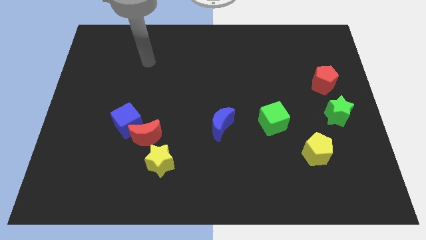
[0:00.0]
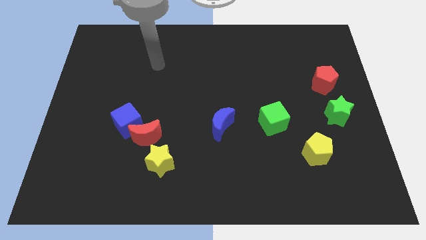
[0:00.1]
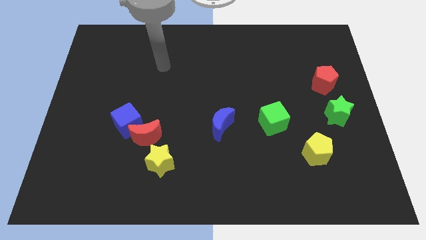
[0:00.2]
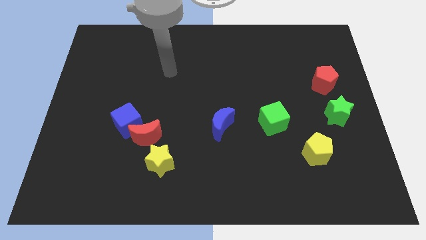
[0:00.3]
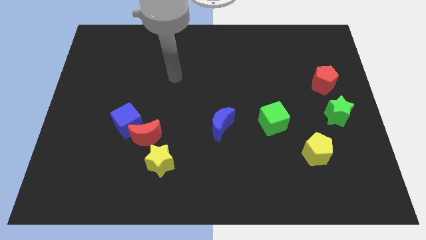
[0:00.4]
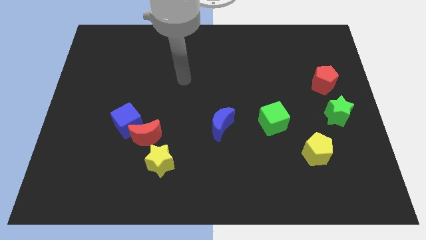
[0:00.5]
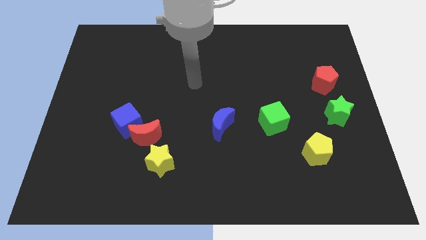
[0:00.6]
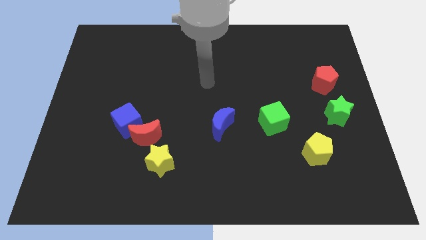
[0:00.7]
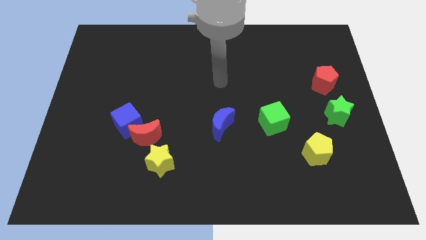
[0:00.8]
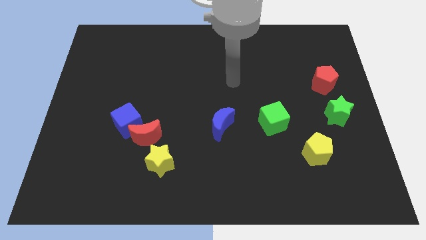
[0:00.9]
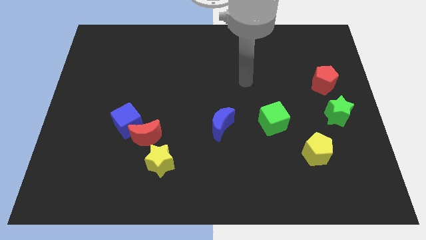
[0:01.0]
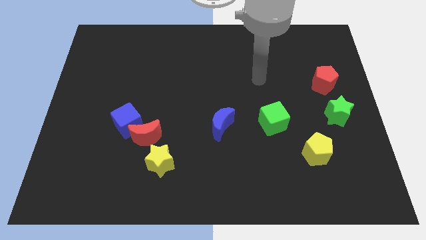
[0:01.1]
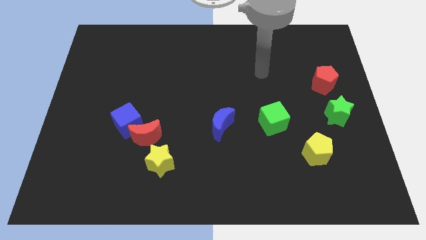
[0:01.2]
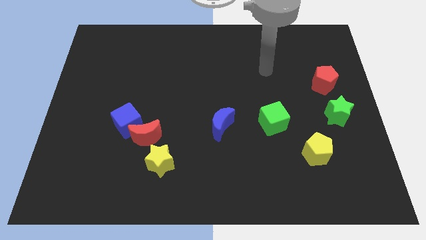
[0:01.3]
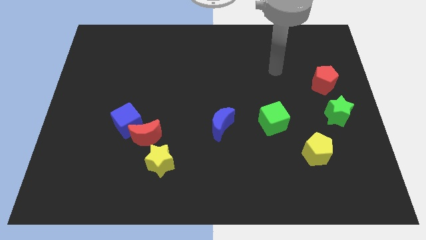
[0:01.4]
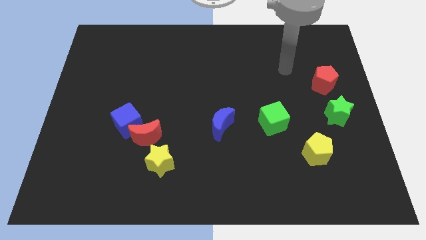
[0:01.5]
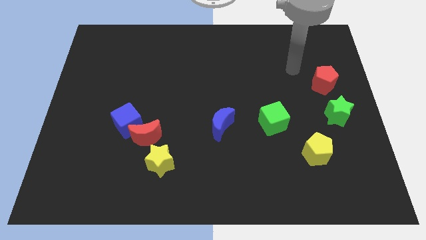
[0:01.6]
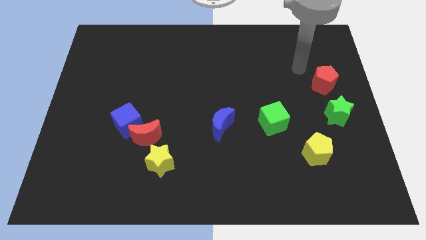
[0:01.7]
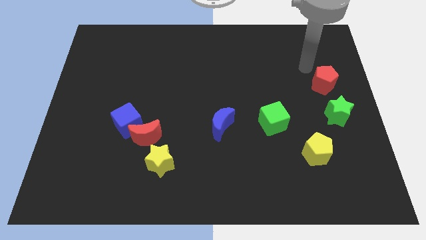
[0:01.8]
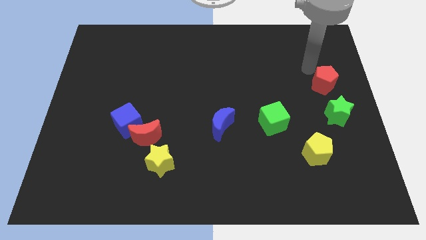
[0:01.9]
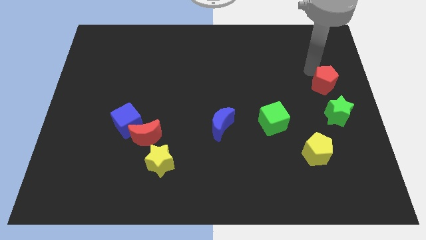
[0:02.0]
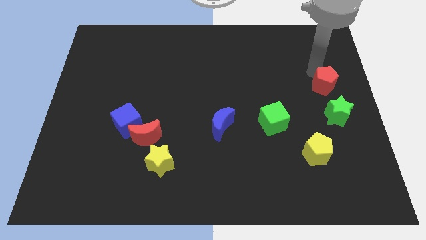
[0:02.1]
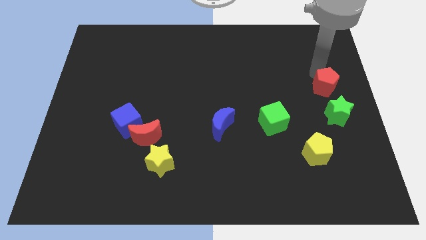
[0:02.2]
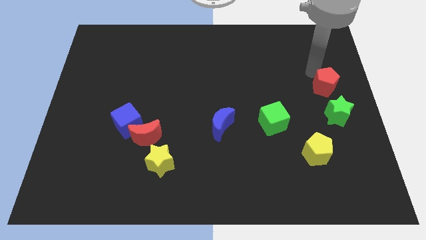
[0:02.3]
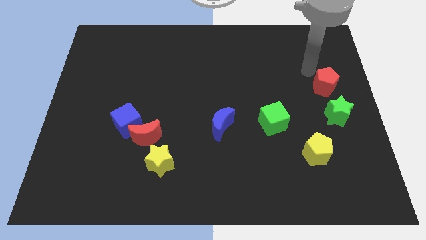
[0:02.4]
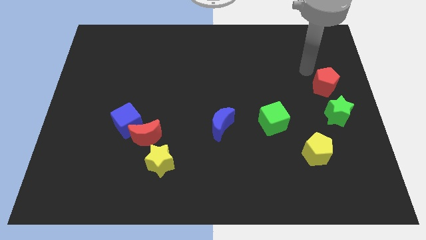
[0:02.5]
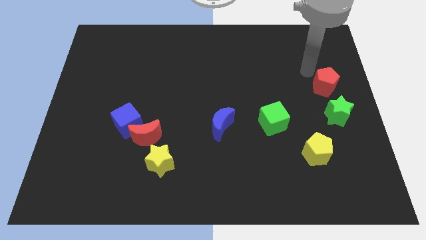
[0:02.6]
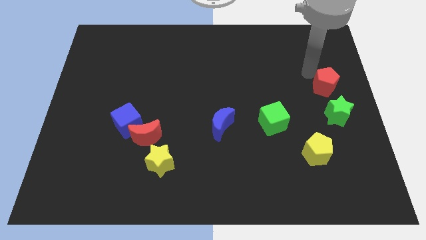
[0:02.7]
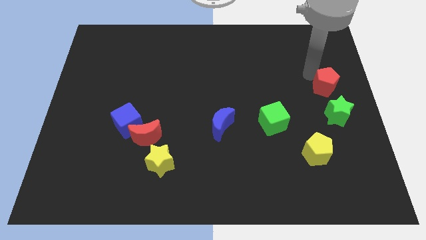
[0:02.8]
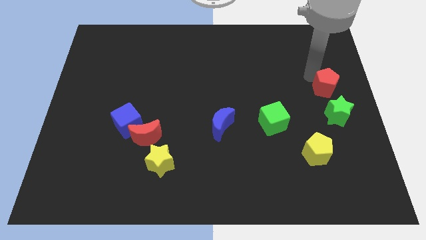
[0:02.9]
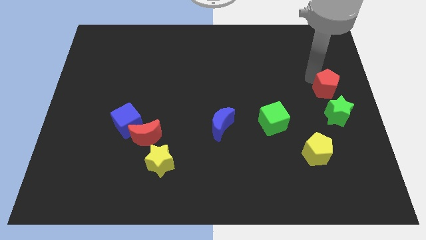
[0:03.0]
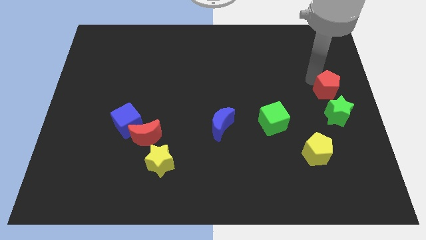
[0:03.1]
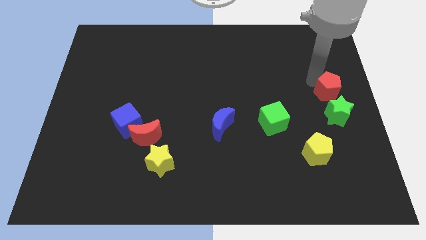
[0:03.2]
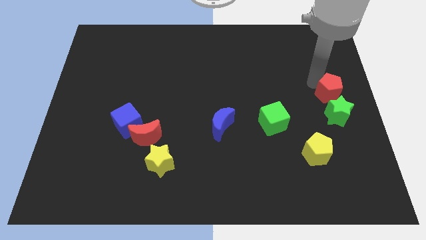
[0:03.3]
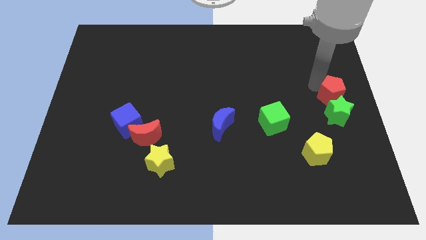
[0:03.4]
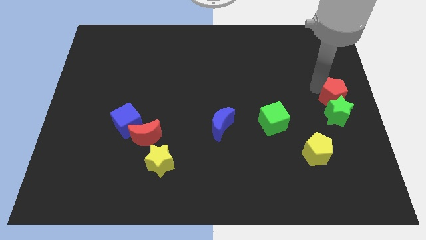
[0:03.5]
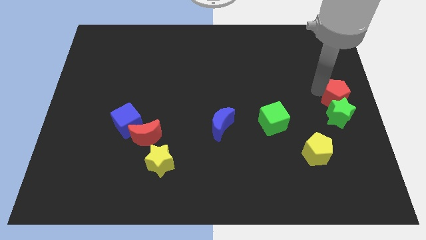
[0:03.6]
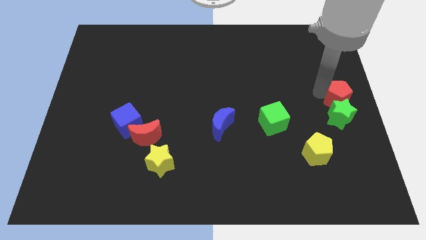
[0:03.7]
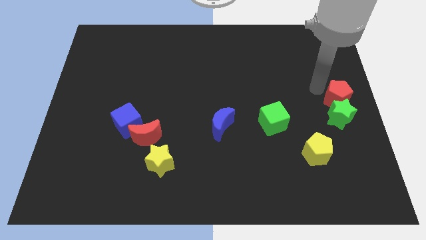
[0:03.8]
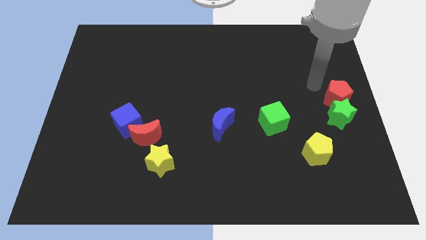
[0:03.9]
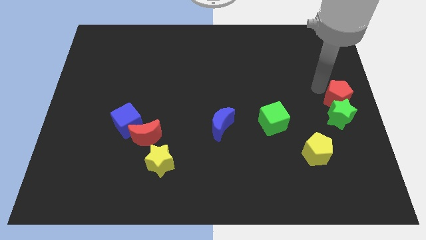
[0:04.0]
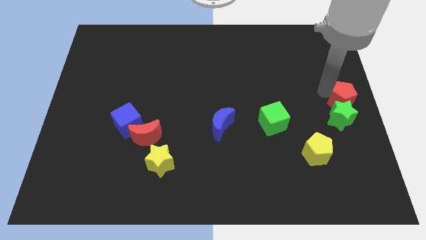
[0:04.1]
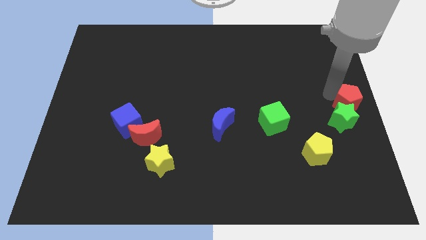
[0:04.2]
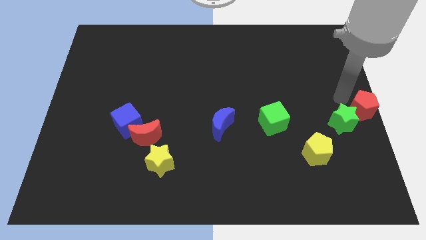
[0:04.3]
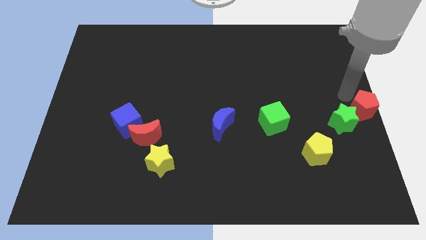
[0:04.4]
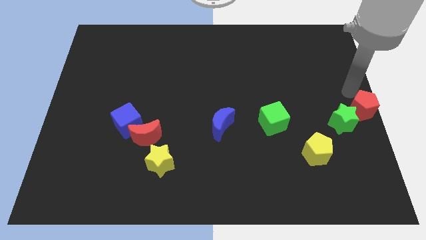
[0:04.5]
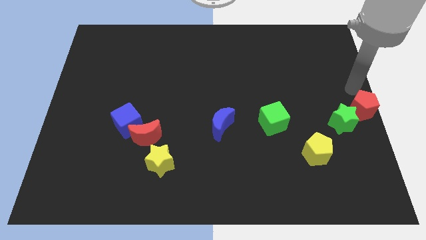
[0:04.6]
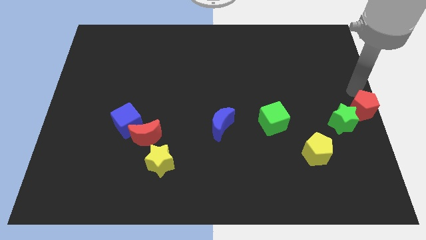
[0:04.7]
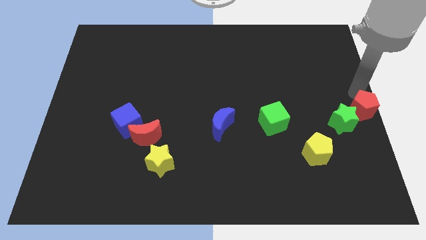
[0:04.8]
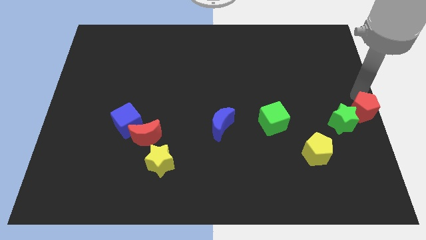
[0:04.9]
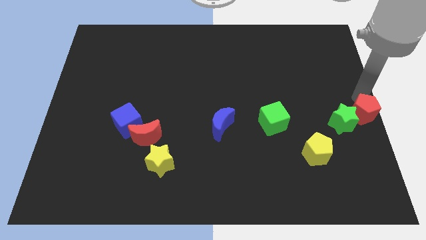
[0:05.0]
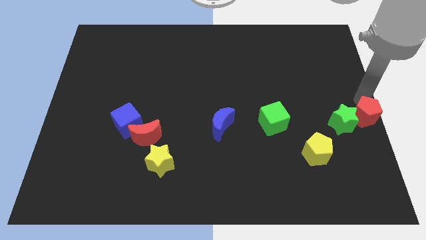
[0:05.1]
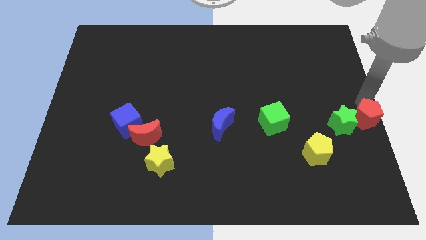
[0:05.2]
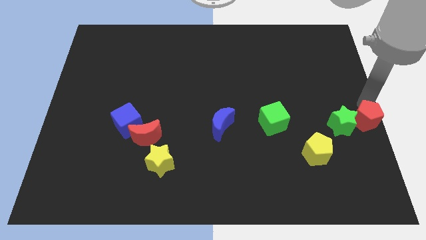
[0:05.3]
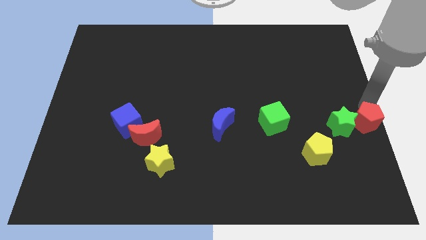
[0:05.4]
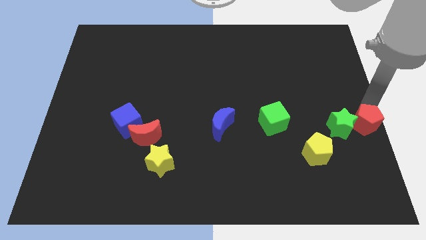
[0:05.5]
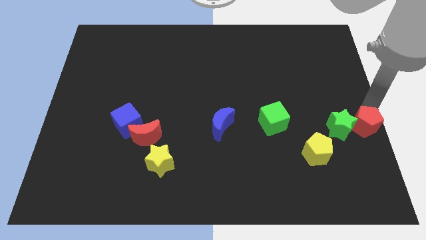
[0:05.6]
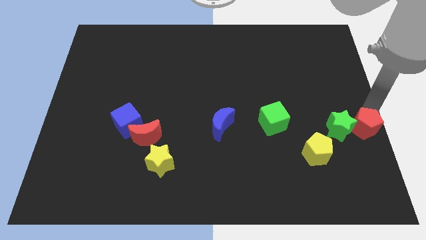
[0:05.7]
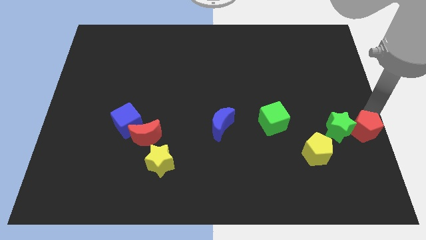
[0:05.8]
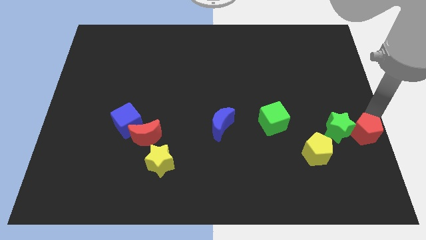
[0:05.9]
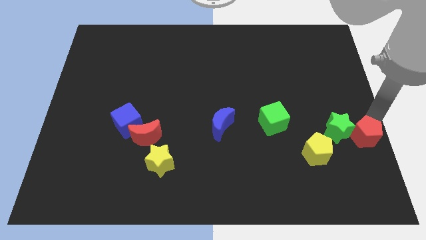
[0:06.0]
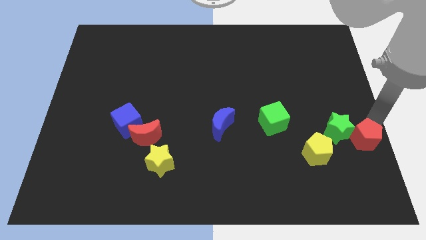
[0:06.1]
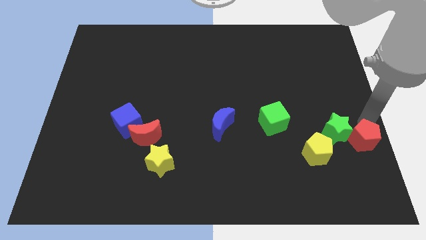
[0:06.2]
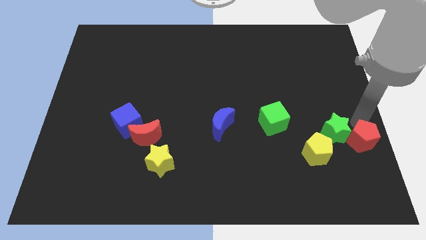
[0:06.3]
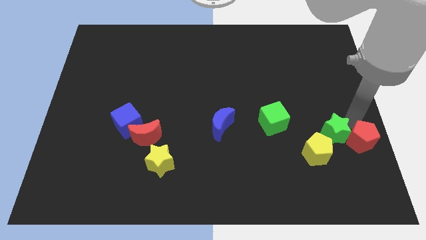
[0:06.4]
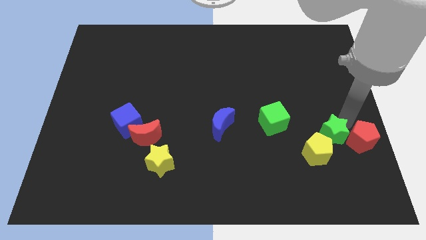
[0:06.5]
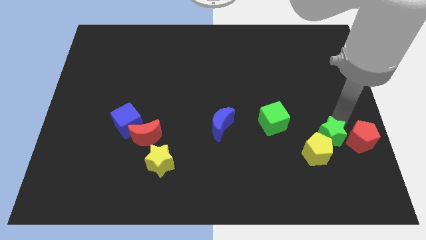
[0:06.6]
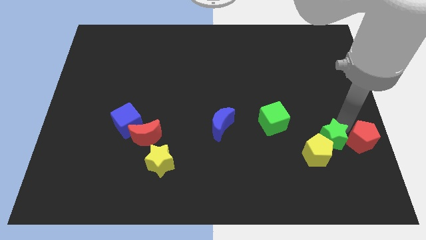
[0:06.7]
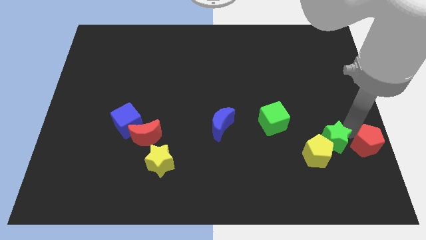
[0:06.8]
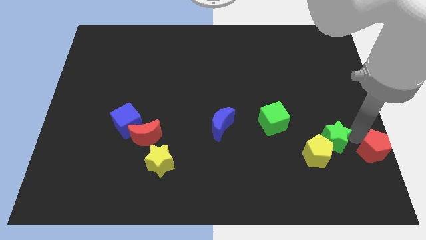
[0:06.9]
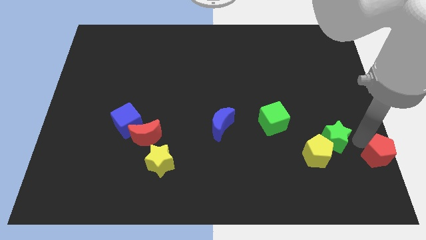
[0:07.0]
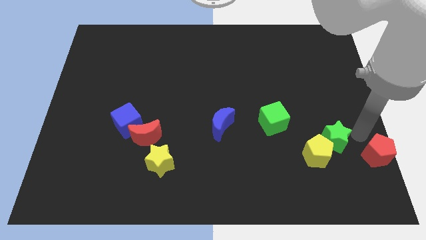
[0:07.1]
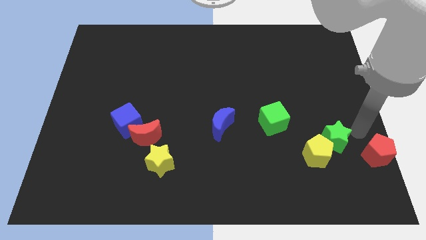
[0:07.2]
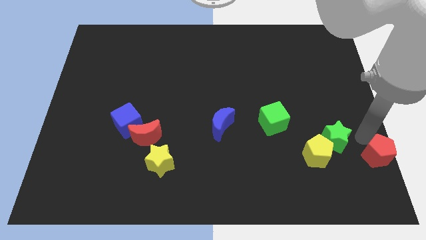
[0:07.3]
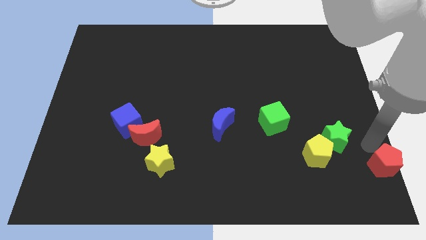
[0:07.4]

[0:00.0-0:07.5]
slide the red pentagon to the bottom right corner
